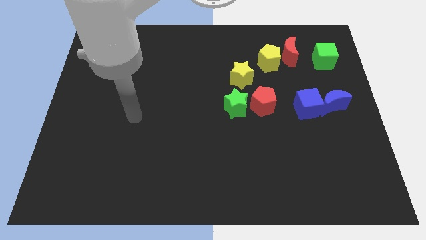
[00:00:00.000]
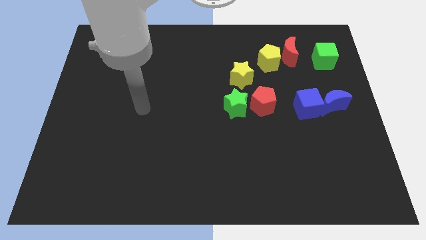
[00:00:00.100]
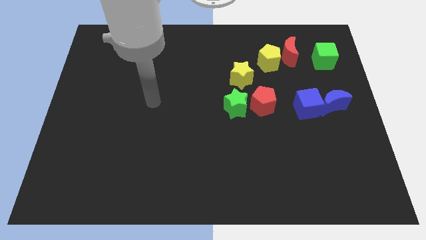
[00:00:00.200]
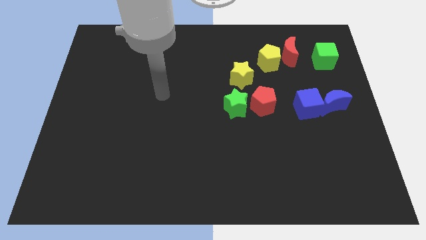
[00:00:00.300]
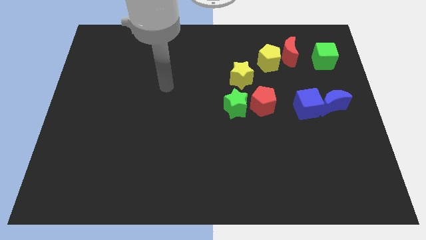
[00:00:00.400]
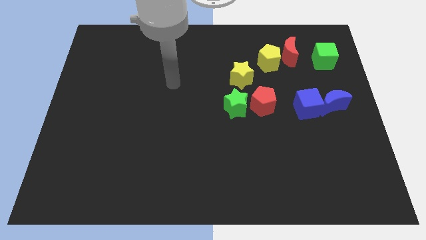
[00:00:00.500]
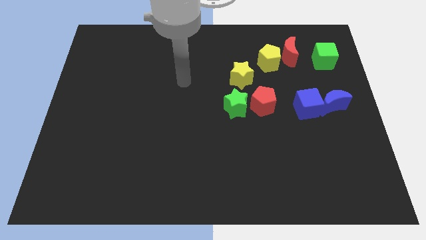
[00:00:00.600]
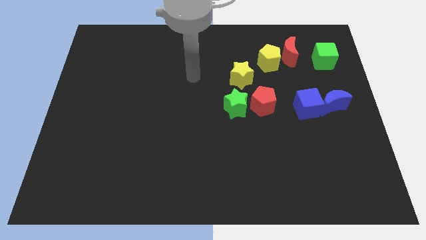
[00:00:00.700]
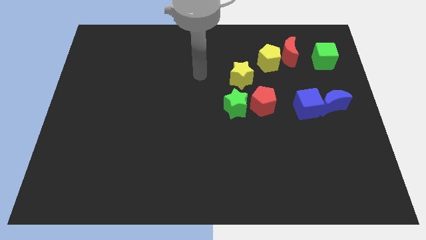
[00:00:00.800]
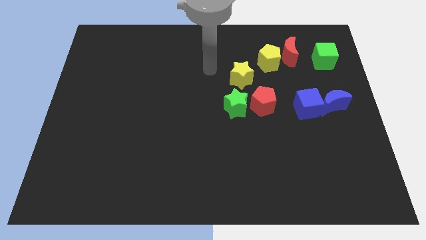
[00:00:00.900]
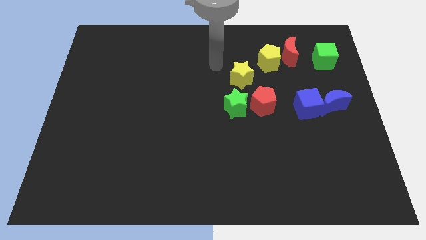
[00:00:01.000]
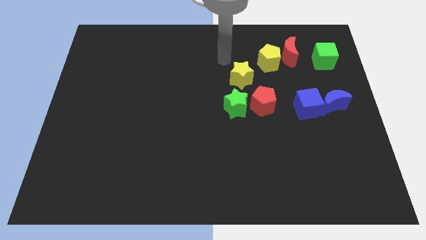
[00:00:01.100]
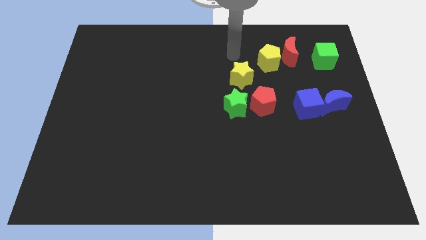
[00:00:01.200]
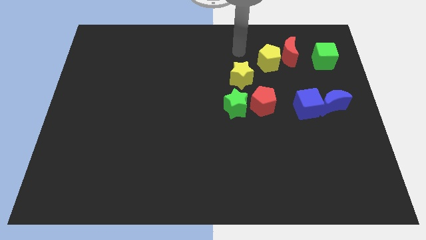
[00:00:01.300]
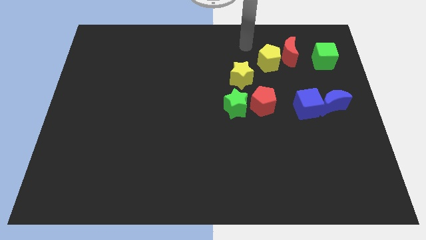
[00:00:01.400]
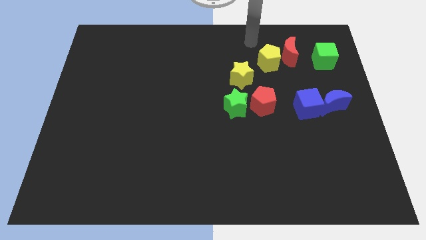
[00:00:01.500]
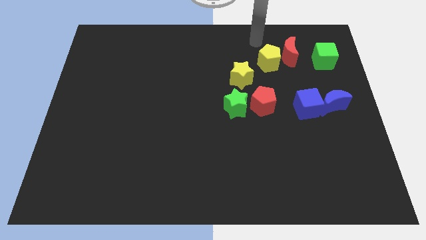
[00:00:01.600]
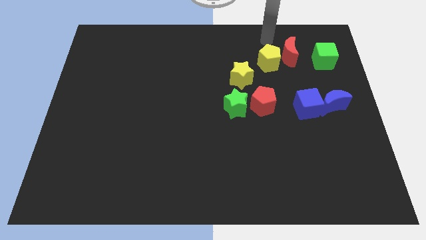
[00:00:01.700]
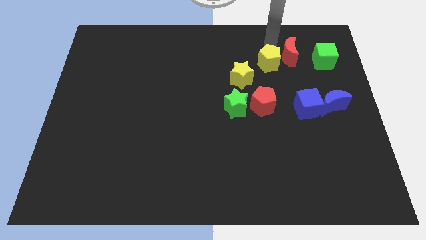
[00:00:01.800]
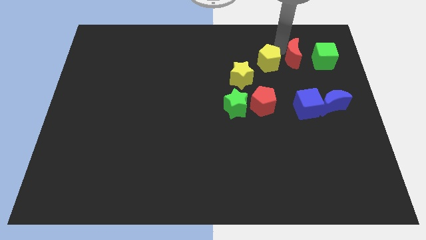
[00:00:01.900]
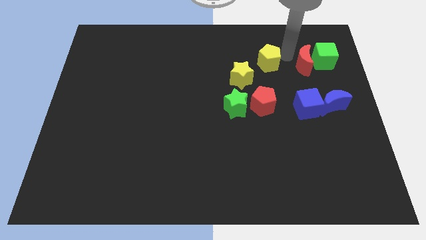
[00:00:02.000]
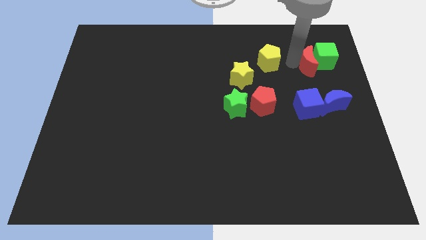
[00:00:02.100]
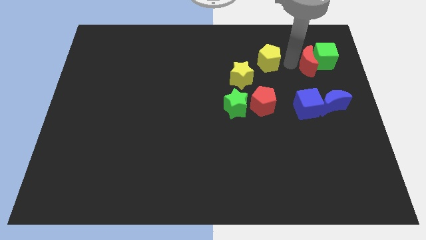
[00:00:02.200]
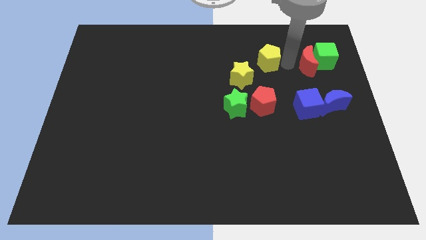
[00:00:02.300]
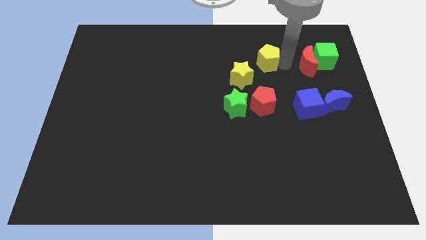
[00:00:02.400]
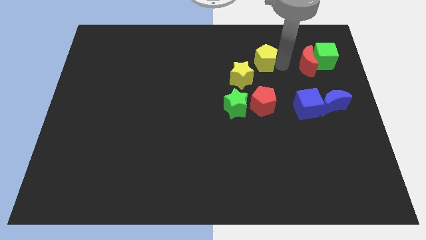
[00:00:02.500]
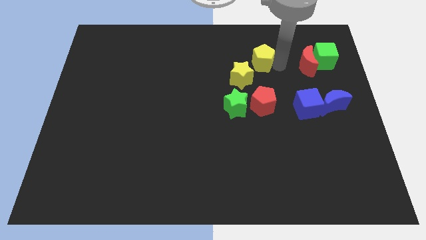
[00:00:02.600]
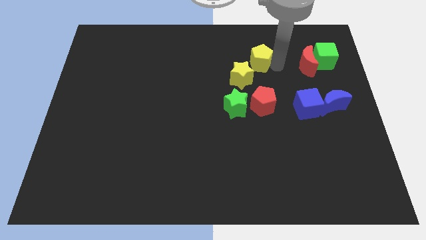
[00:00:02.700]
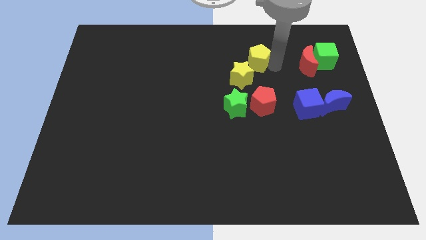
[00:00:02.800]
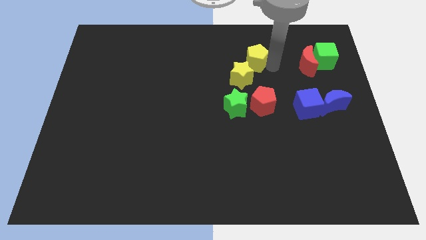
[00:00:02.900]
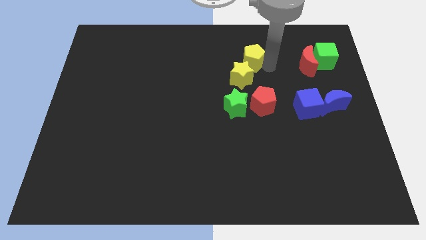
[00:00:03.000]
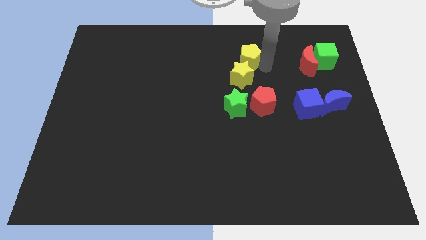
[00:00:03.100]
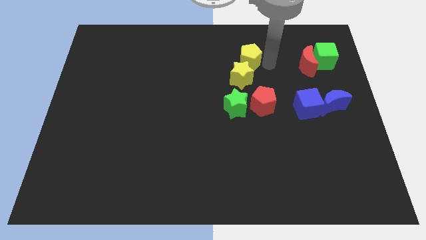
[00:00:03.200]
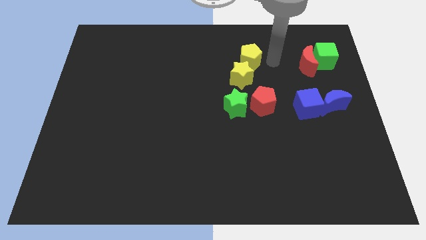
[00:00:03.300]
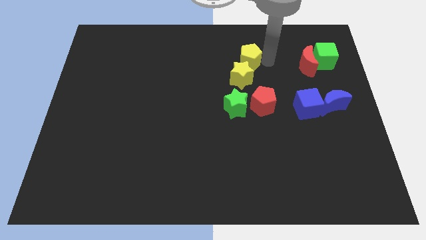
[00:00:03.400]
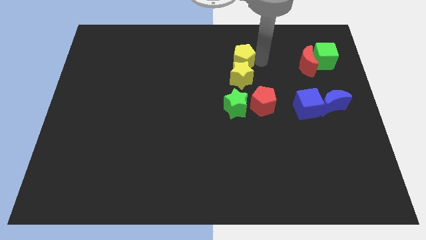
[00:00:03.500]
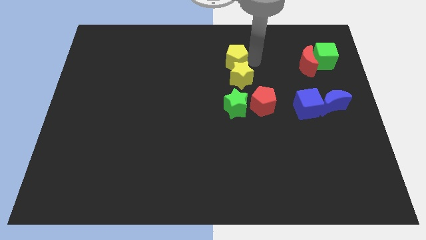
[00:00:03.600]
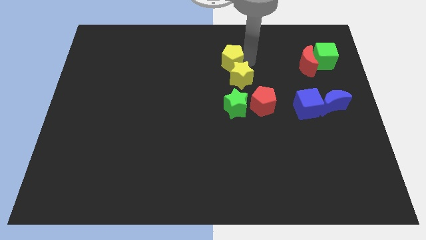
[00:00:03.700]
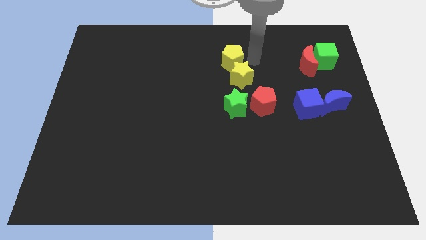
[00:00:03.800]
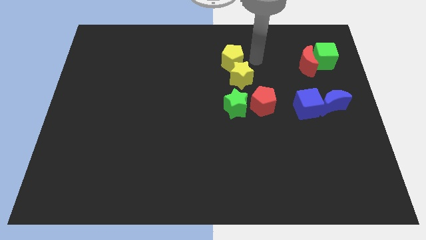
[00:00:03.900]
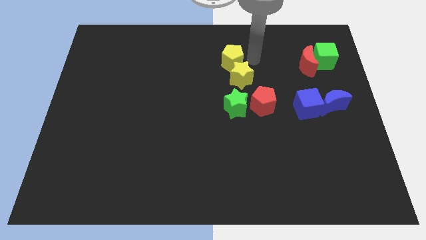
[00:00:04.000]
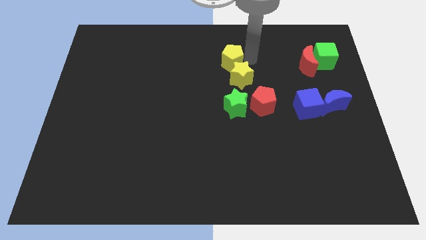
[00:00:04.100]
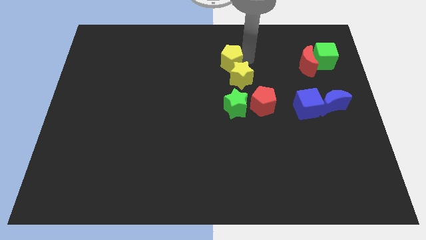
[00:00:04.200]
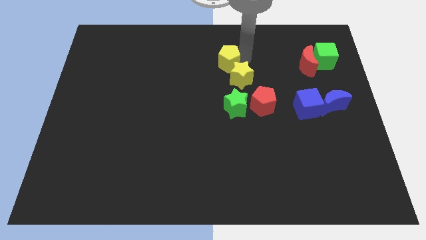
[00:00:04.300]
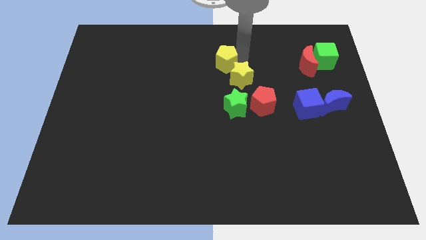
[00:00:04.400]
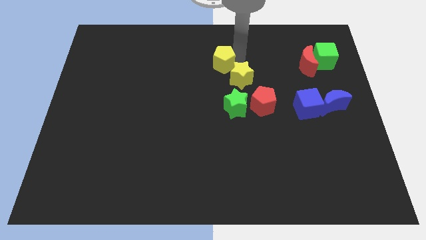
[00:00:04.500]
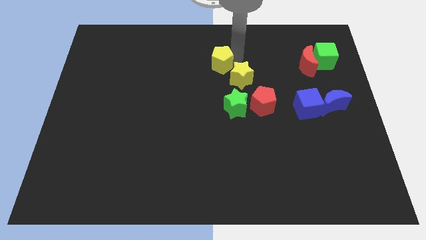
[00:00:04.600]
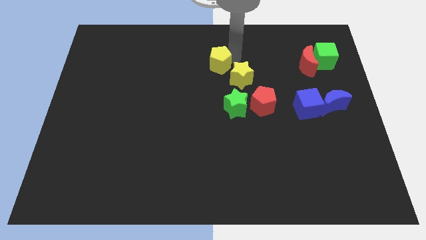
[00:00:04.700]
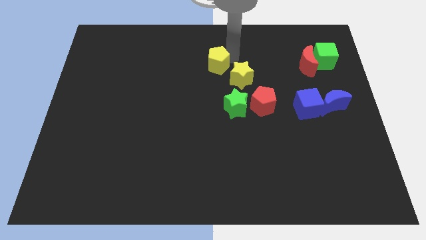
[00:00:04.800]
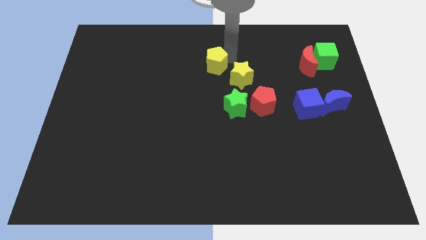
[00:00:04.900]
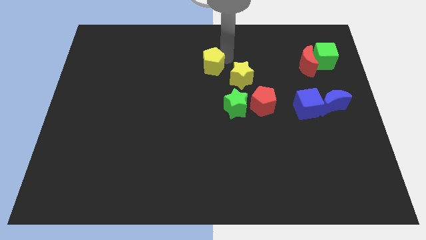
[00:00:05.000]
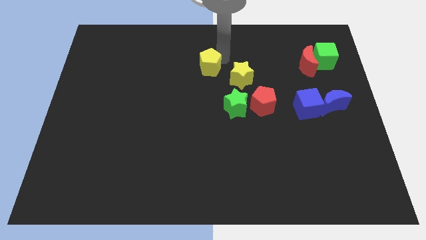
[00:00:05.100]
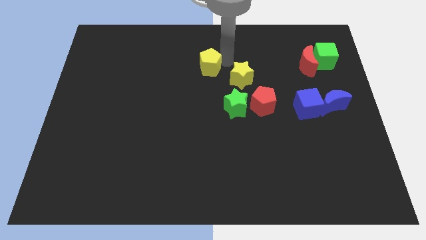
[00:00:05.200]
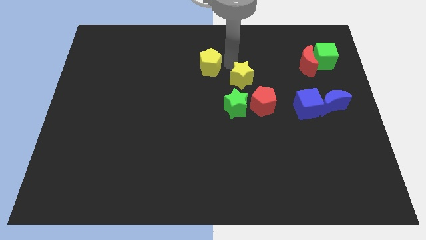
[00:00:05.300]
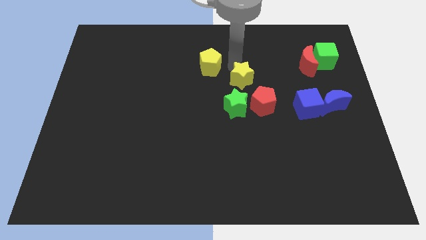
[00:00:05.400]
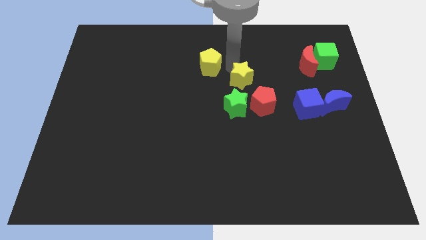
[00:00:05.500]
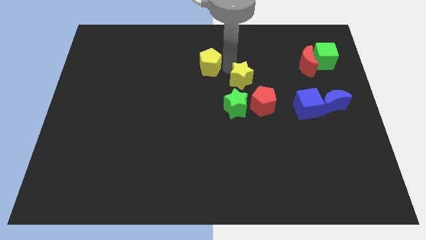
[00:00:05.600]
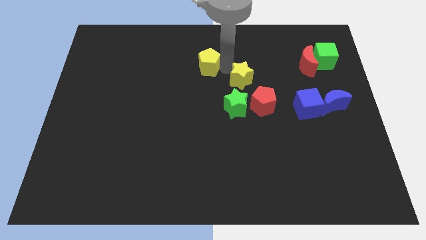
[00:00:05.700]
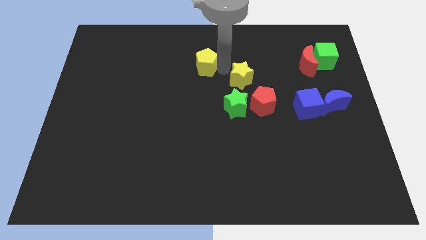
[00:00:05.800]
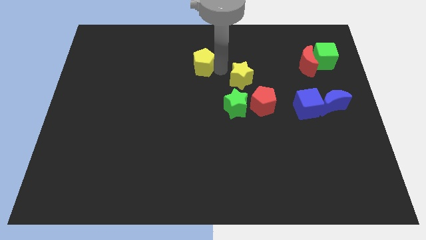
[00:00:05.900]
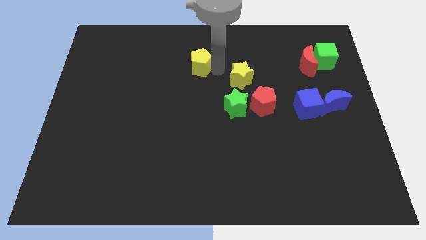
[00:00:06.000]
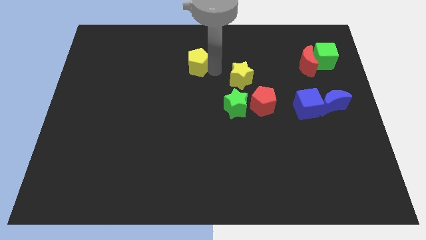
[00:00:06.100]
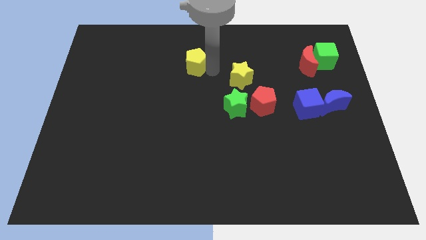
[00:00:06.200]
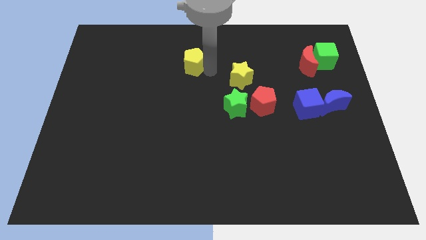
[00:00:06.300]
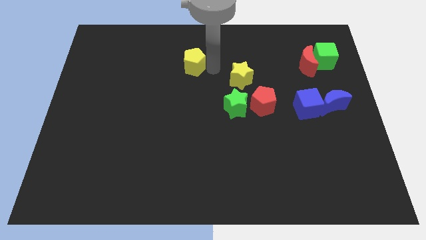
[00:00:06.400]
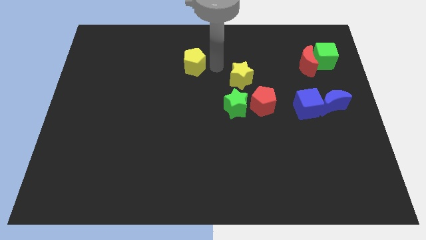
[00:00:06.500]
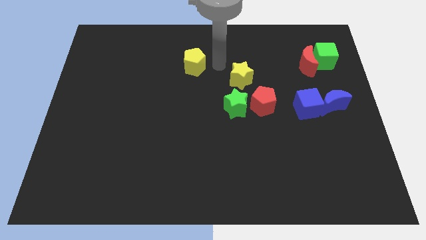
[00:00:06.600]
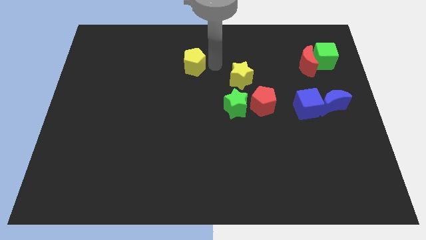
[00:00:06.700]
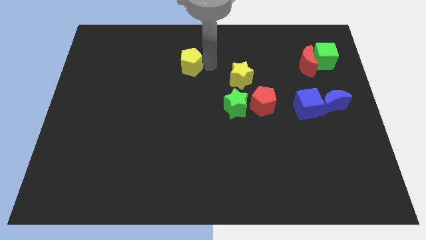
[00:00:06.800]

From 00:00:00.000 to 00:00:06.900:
push the yellow pentagon to the left

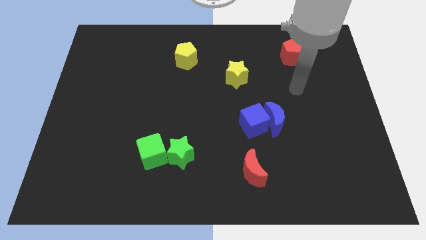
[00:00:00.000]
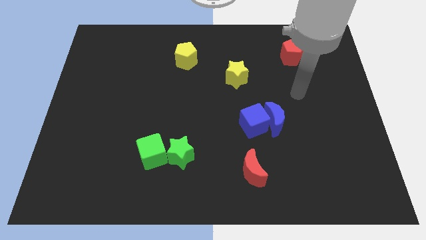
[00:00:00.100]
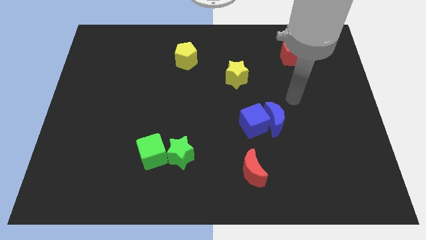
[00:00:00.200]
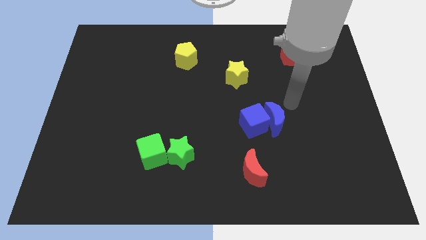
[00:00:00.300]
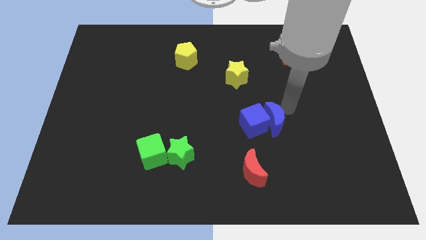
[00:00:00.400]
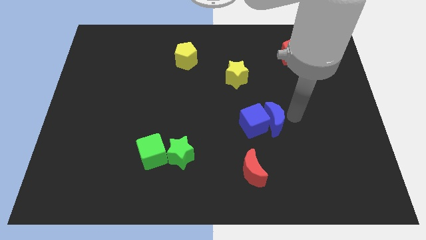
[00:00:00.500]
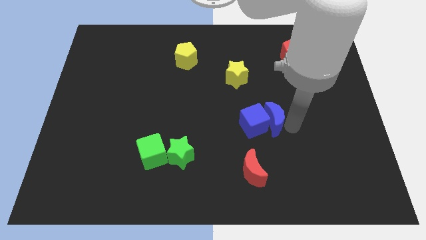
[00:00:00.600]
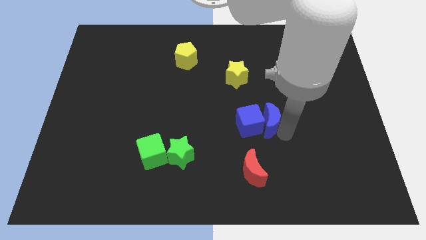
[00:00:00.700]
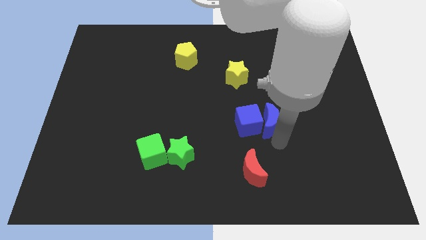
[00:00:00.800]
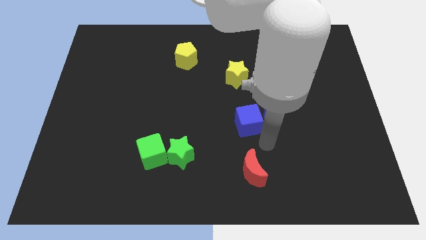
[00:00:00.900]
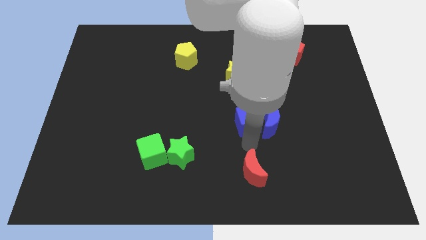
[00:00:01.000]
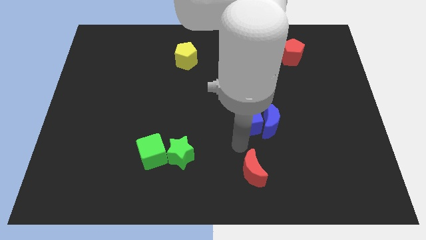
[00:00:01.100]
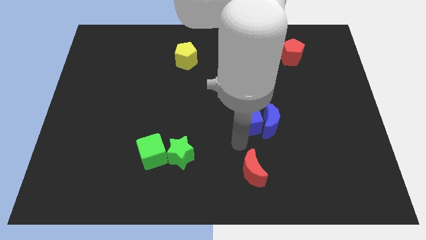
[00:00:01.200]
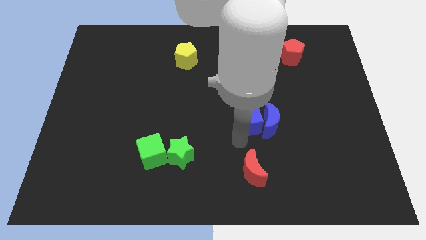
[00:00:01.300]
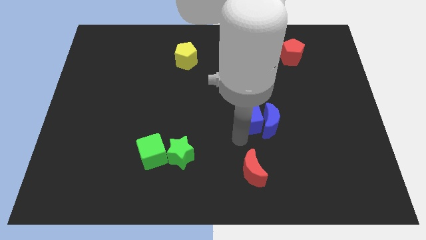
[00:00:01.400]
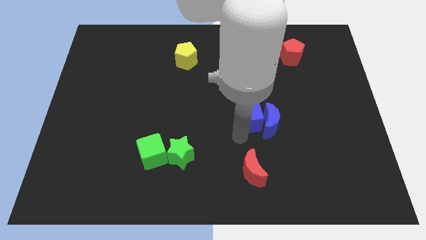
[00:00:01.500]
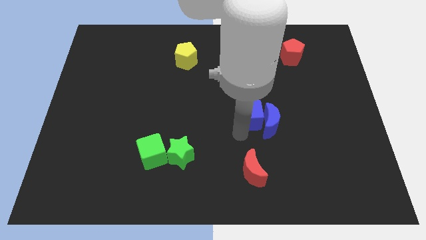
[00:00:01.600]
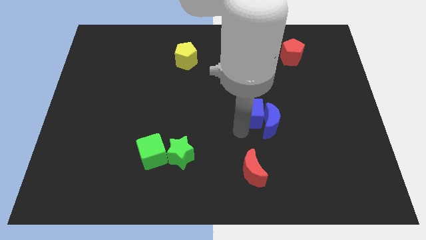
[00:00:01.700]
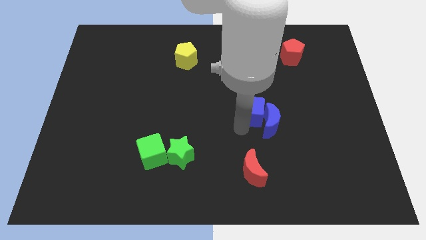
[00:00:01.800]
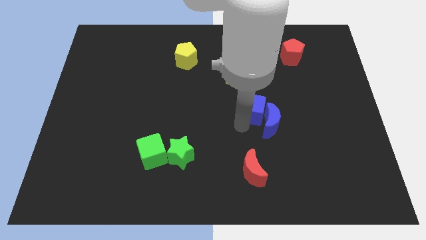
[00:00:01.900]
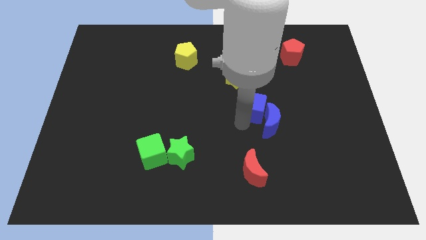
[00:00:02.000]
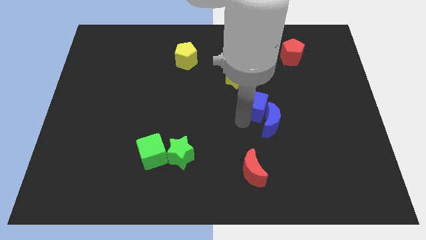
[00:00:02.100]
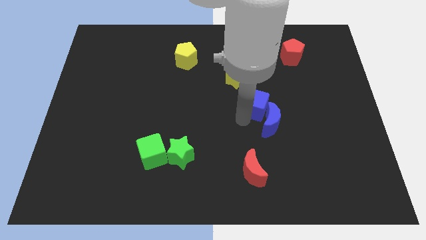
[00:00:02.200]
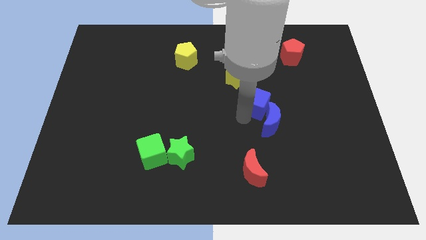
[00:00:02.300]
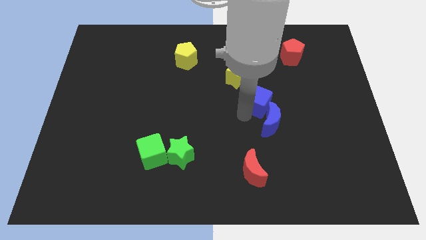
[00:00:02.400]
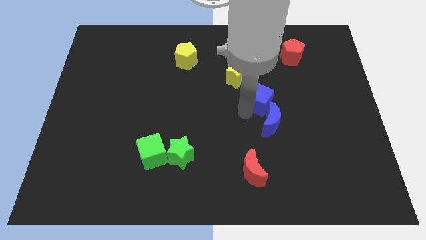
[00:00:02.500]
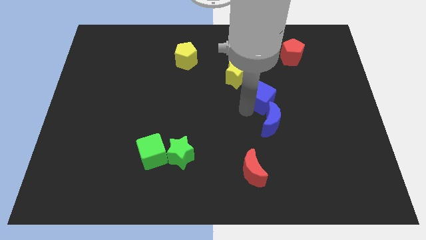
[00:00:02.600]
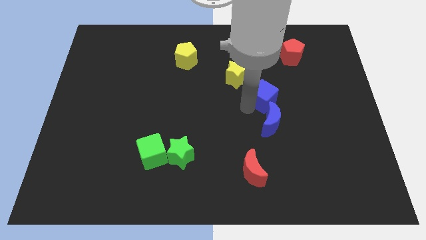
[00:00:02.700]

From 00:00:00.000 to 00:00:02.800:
slide the blue cube a little bit upwards and then to the right
